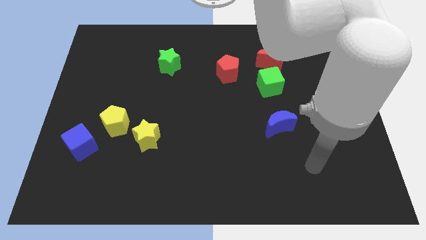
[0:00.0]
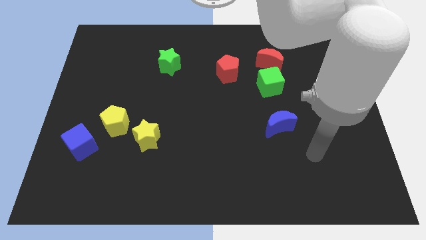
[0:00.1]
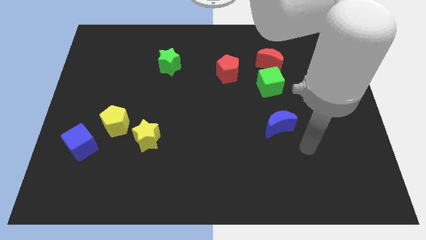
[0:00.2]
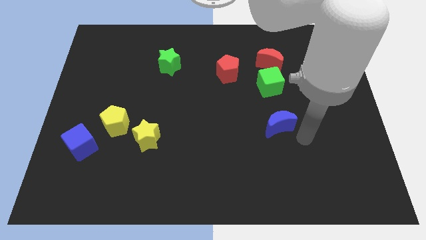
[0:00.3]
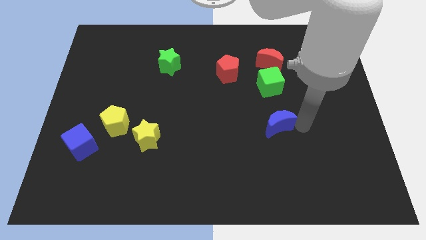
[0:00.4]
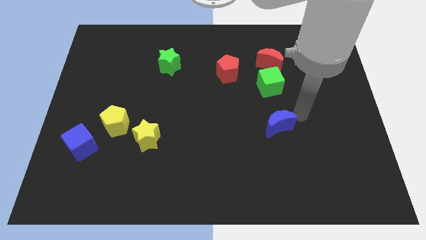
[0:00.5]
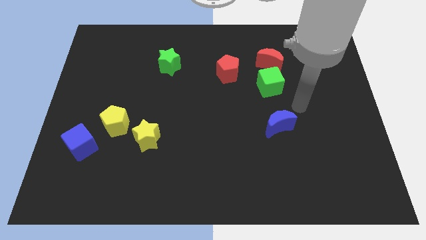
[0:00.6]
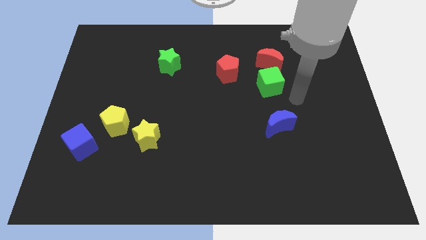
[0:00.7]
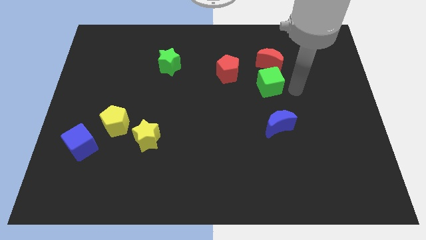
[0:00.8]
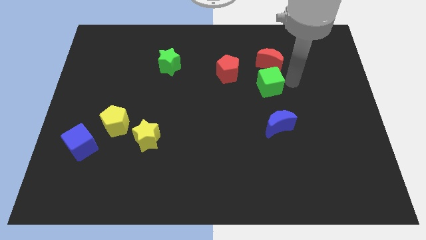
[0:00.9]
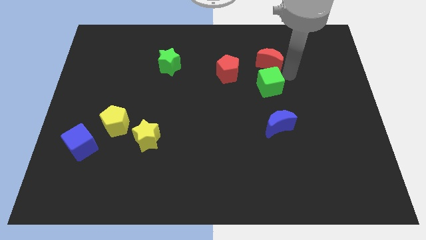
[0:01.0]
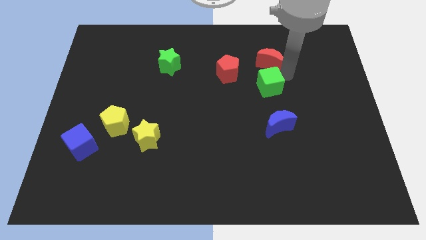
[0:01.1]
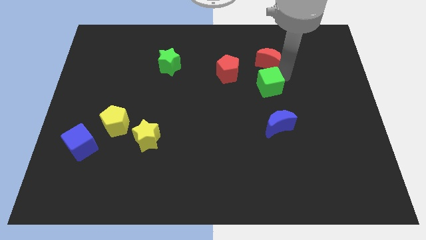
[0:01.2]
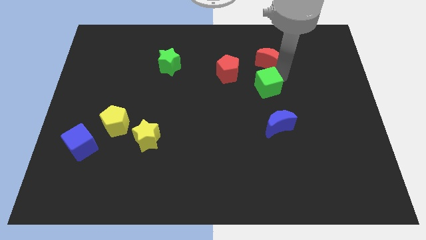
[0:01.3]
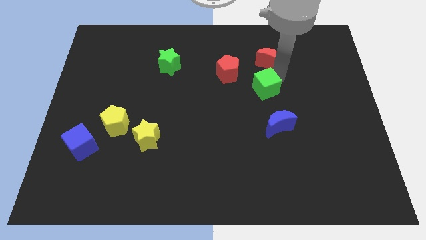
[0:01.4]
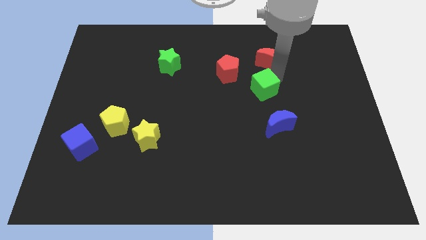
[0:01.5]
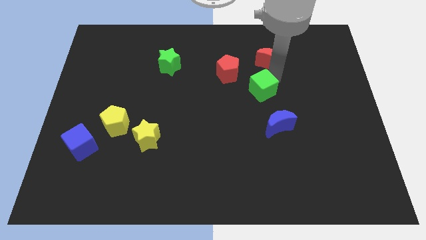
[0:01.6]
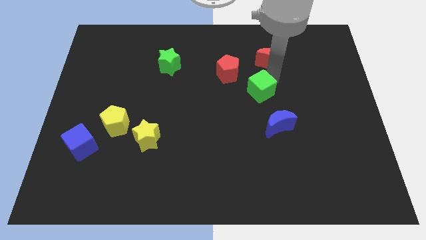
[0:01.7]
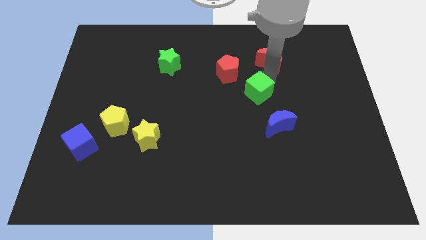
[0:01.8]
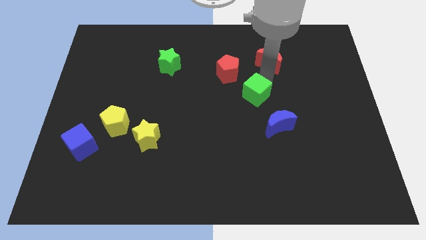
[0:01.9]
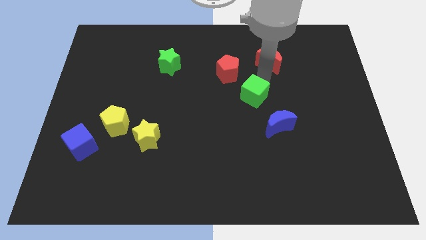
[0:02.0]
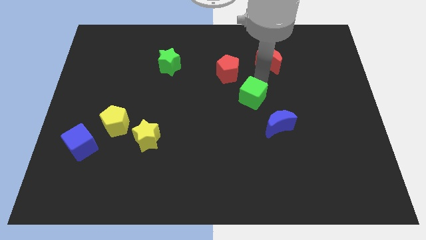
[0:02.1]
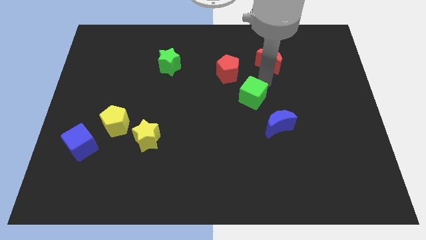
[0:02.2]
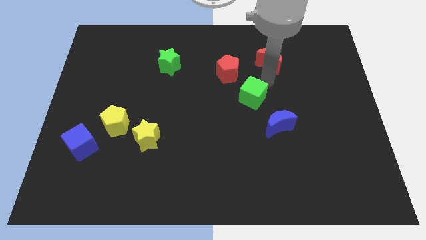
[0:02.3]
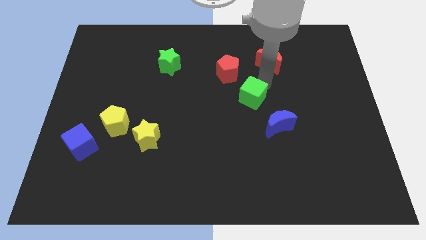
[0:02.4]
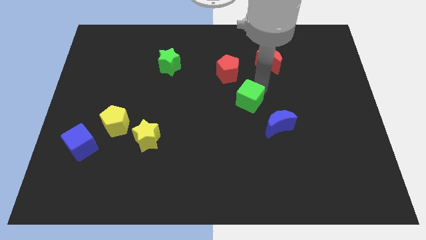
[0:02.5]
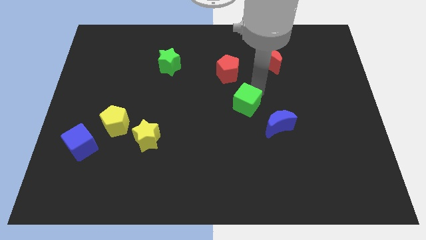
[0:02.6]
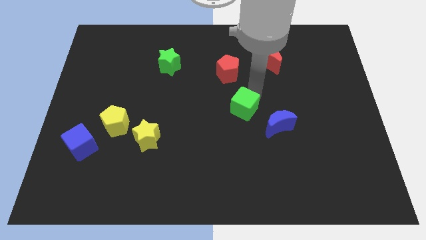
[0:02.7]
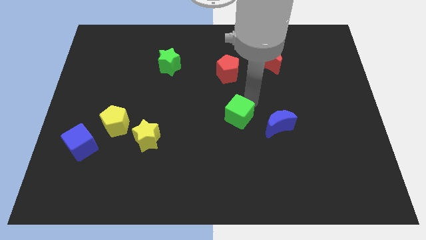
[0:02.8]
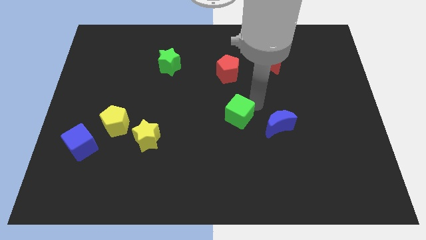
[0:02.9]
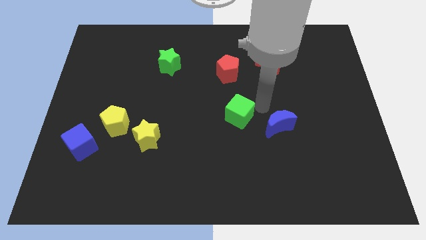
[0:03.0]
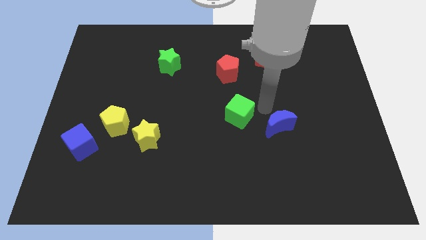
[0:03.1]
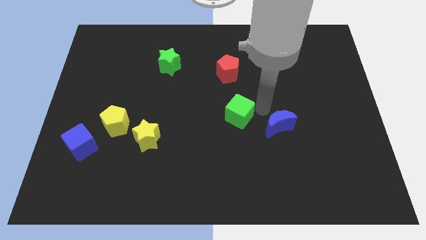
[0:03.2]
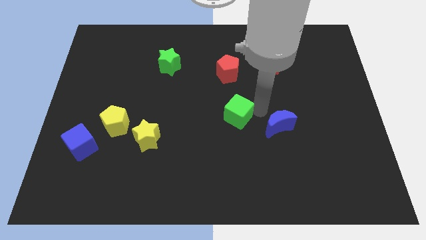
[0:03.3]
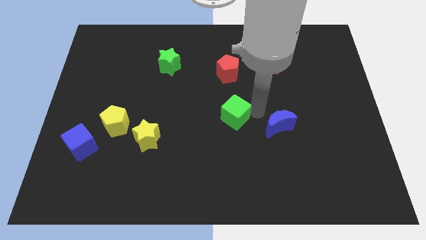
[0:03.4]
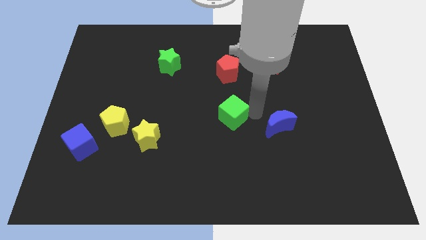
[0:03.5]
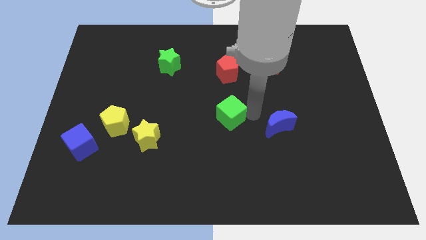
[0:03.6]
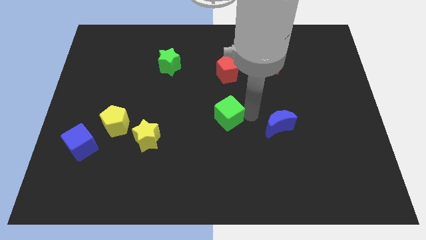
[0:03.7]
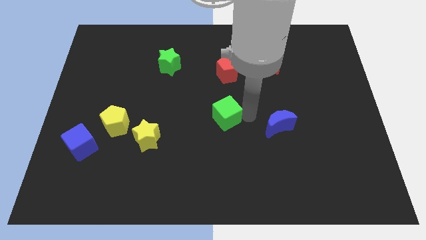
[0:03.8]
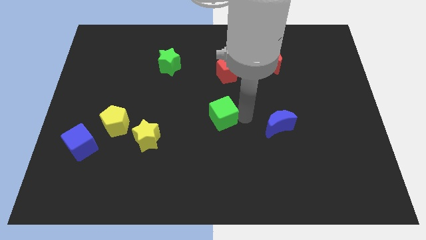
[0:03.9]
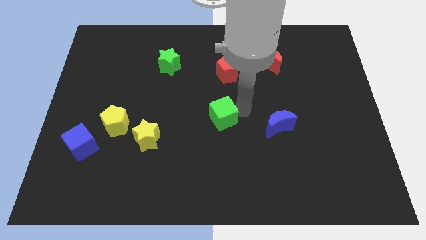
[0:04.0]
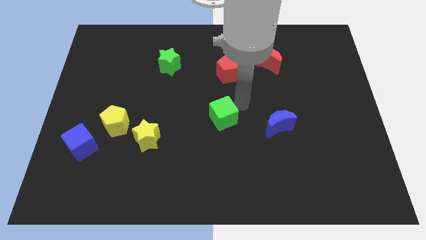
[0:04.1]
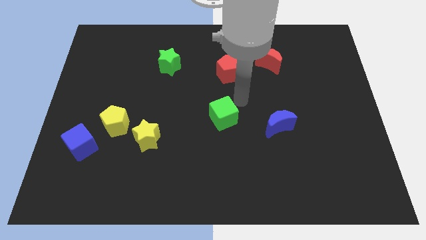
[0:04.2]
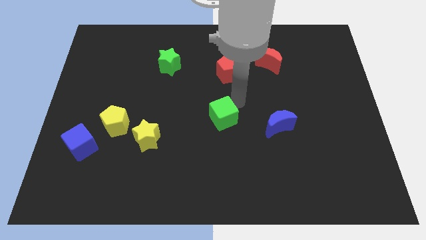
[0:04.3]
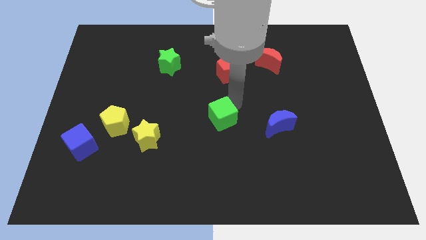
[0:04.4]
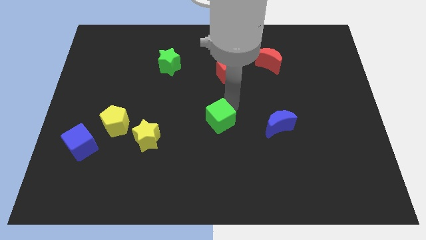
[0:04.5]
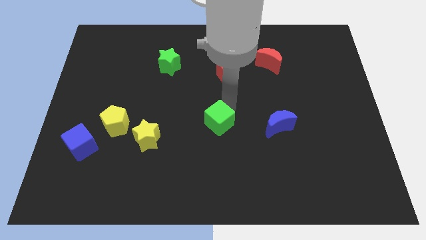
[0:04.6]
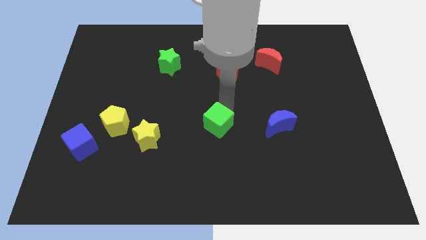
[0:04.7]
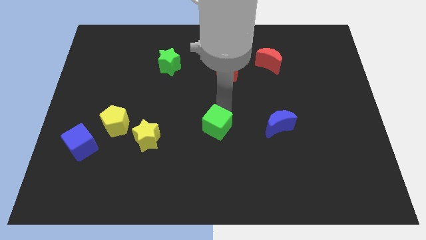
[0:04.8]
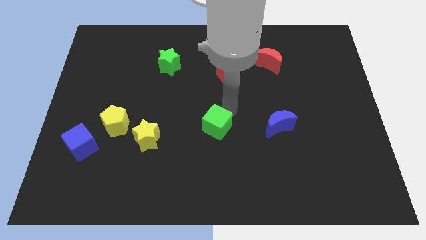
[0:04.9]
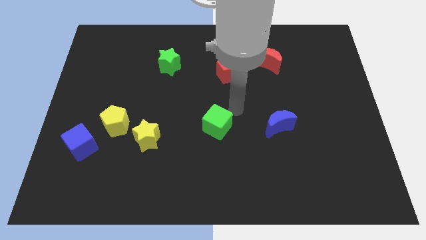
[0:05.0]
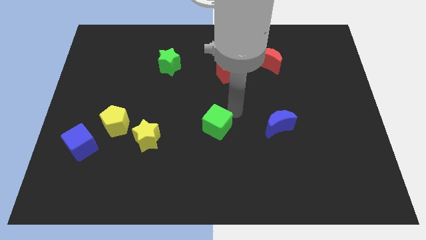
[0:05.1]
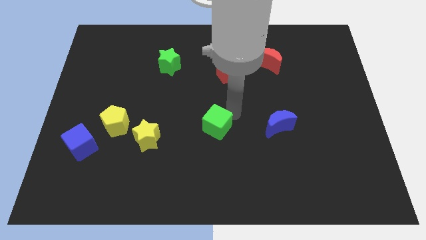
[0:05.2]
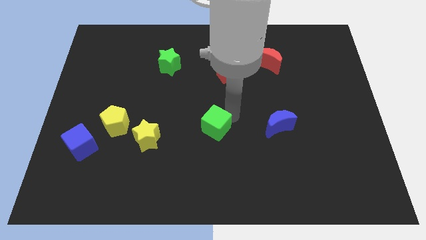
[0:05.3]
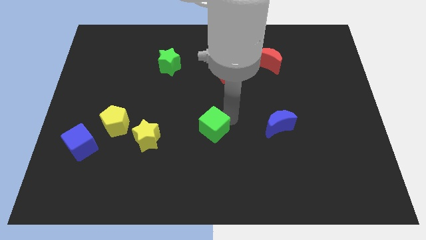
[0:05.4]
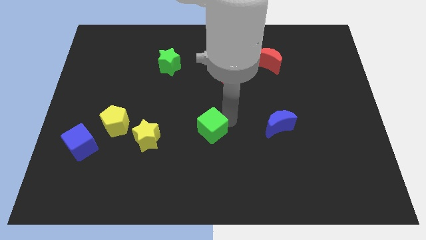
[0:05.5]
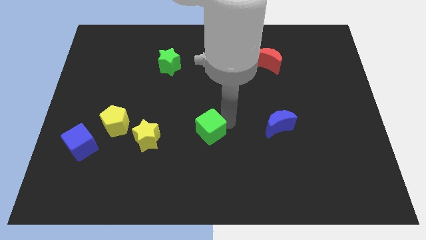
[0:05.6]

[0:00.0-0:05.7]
slide the green cube downwards and left

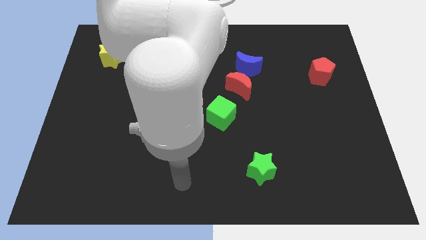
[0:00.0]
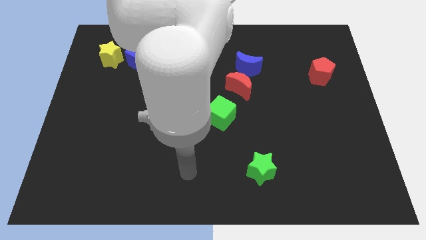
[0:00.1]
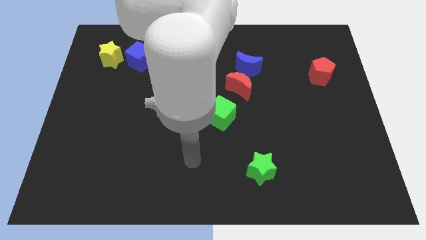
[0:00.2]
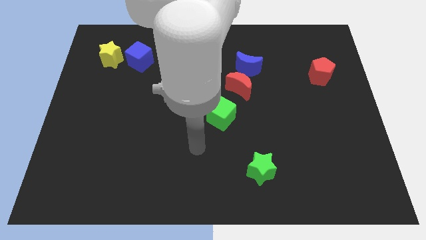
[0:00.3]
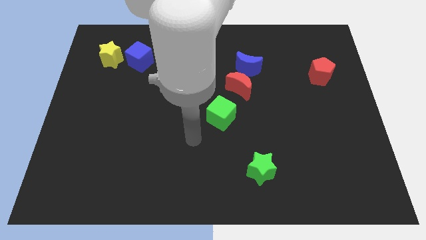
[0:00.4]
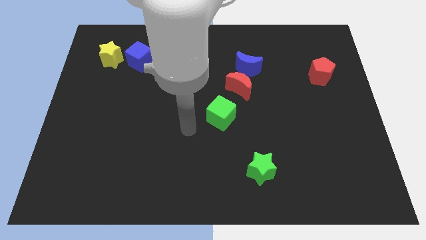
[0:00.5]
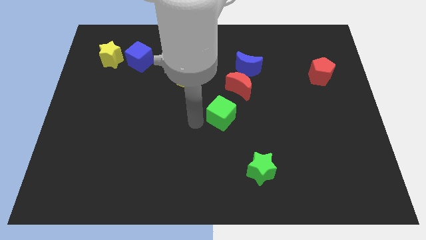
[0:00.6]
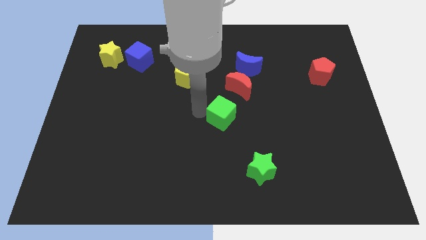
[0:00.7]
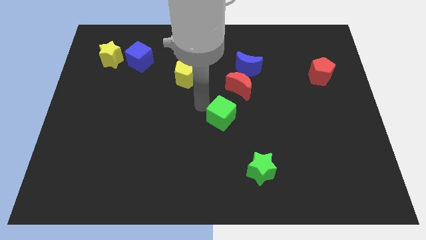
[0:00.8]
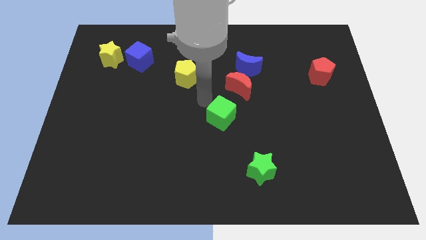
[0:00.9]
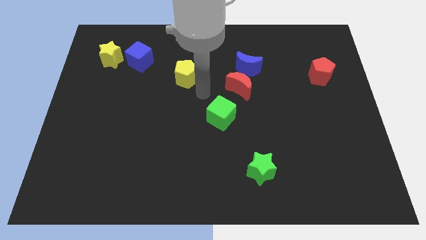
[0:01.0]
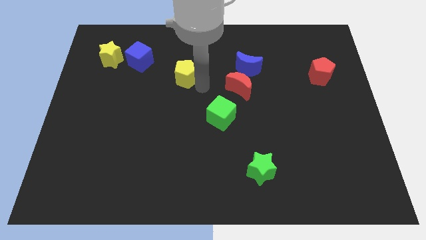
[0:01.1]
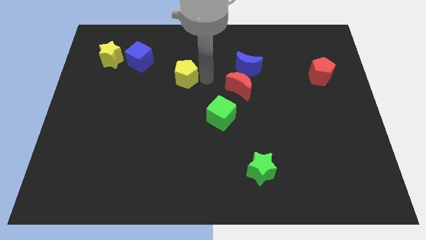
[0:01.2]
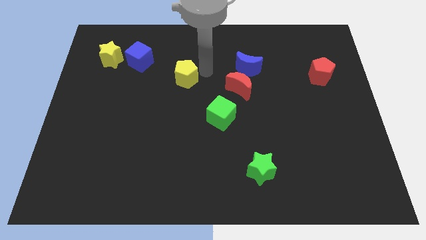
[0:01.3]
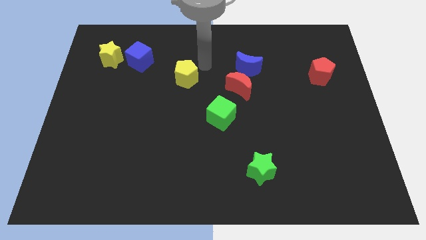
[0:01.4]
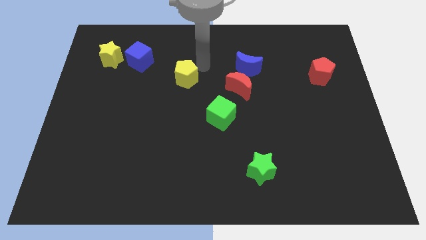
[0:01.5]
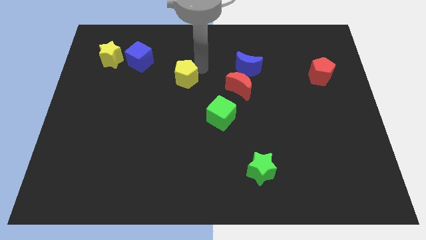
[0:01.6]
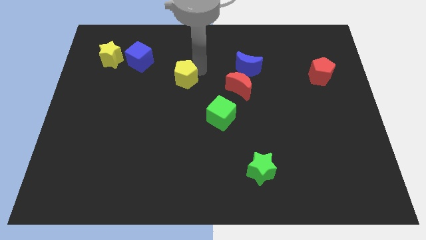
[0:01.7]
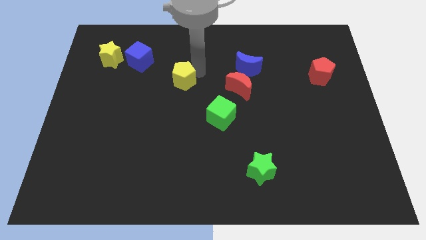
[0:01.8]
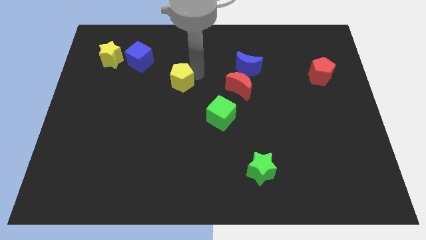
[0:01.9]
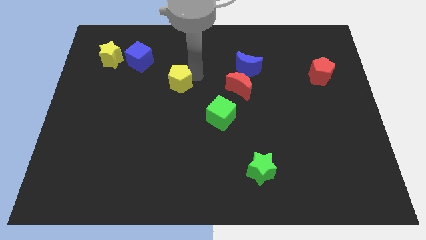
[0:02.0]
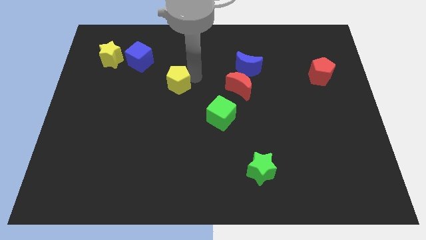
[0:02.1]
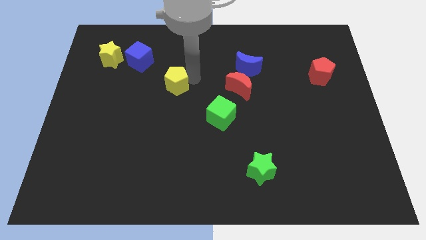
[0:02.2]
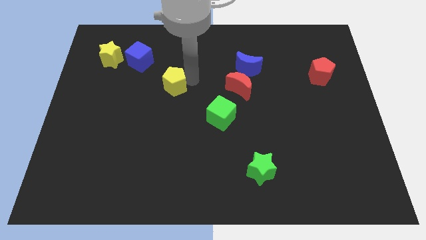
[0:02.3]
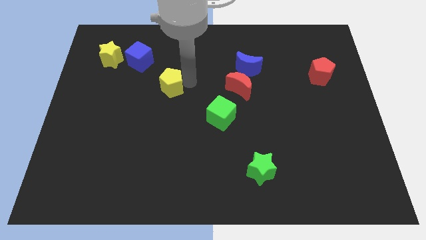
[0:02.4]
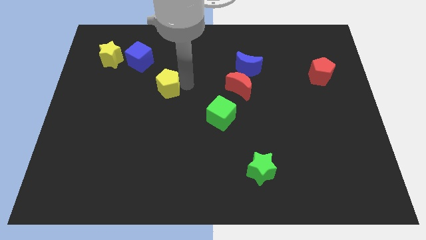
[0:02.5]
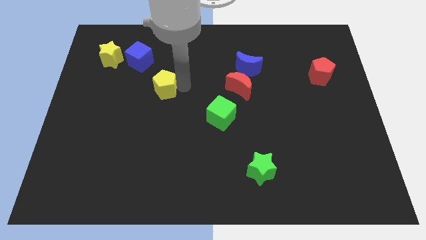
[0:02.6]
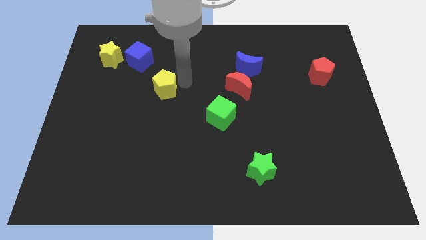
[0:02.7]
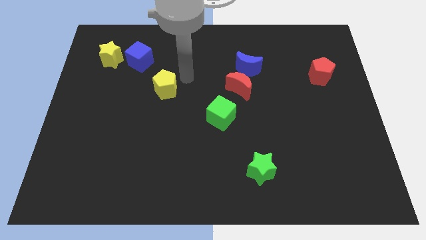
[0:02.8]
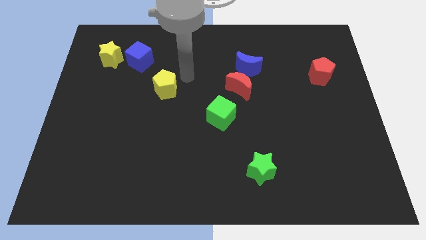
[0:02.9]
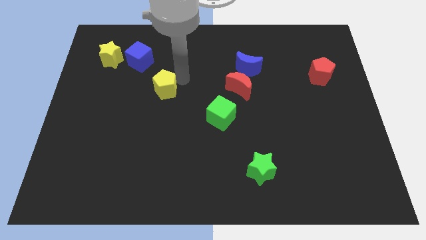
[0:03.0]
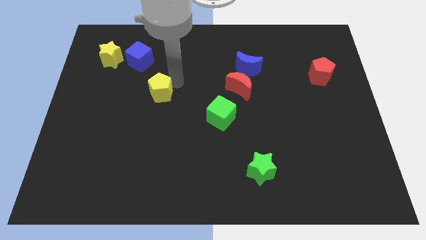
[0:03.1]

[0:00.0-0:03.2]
push the yellow pentagon slightly downwards and to the left diagonally
